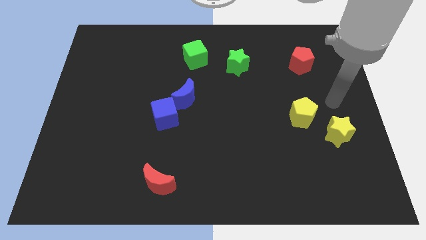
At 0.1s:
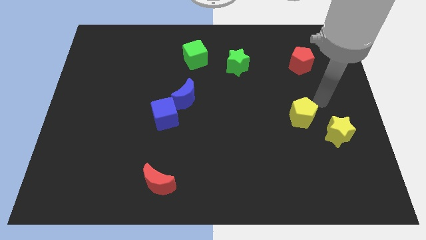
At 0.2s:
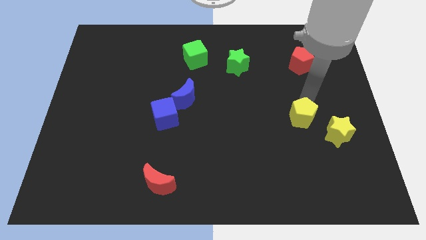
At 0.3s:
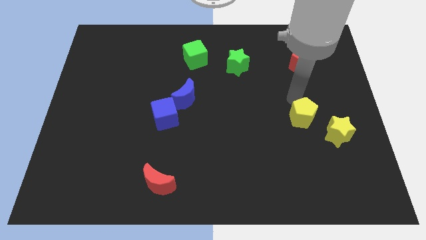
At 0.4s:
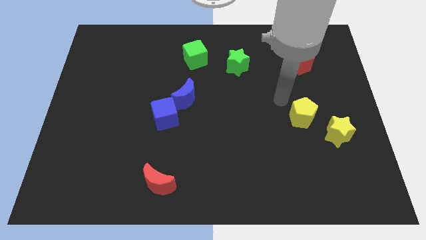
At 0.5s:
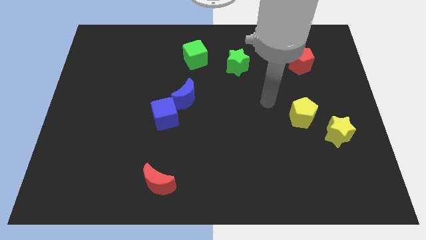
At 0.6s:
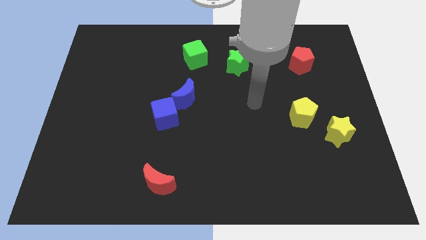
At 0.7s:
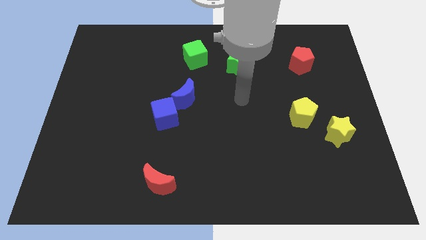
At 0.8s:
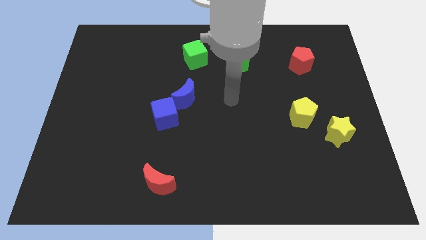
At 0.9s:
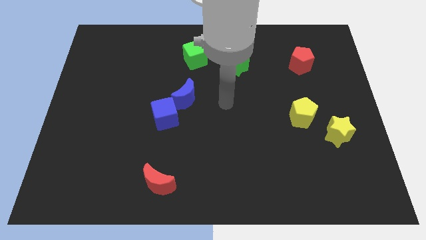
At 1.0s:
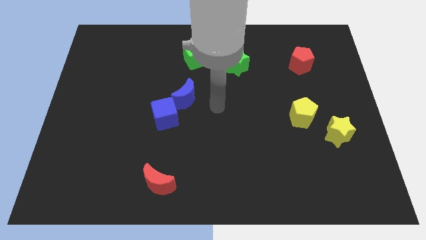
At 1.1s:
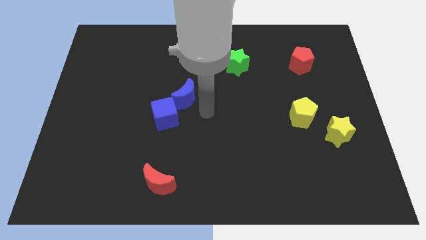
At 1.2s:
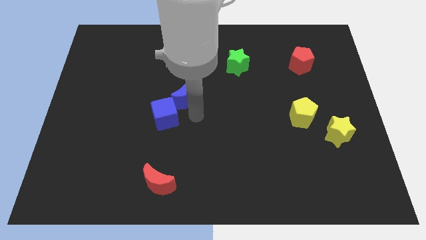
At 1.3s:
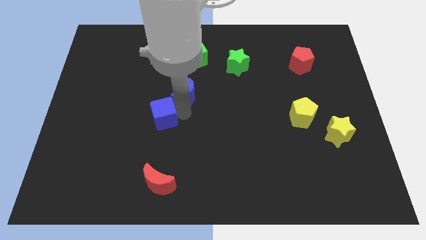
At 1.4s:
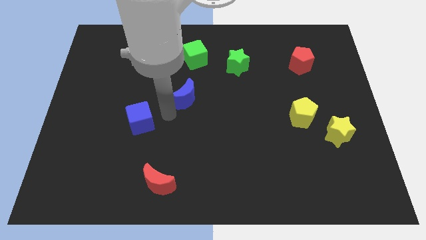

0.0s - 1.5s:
move the blue moon away from the blue cube

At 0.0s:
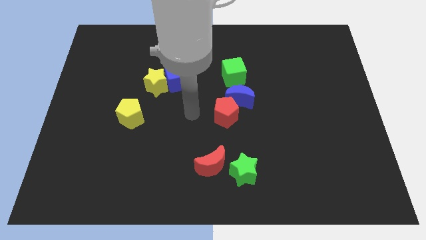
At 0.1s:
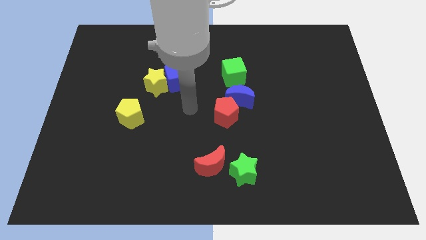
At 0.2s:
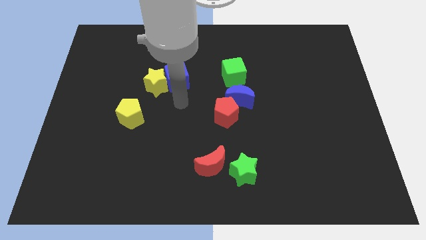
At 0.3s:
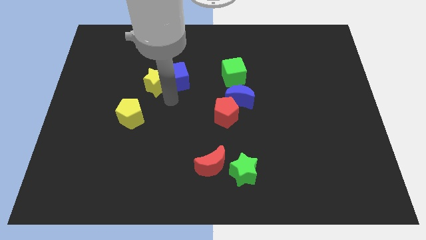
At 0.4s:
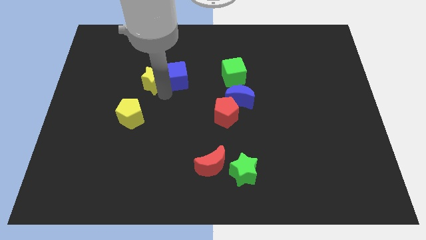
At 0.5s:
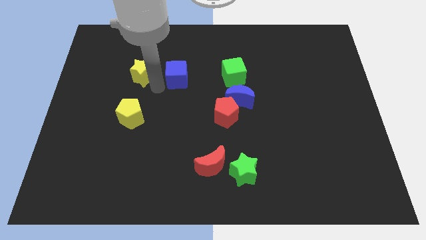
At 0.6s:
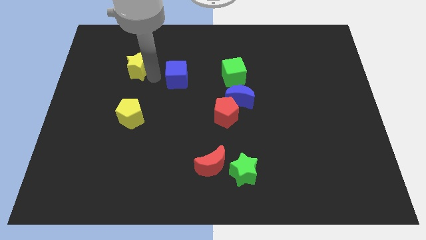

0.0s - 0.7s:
separate the blue cube from the yellow star

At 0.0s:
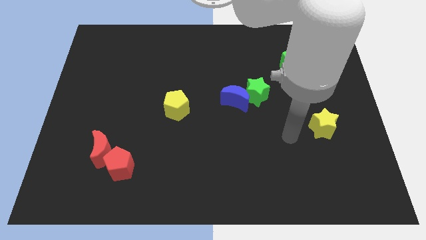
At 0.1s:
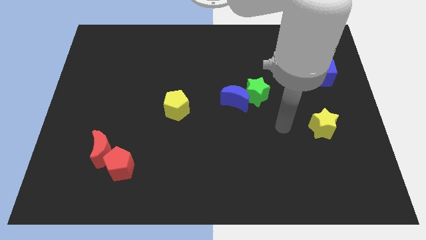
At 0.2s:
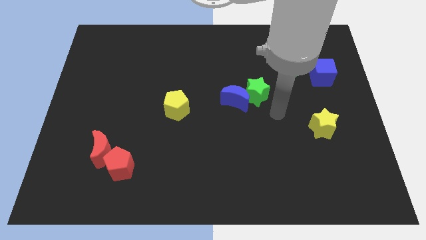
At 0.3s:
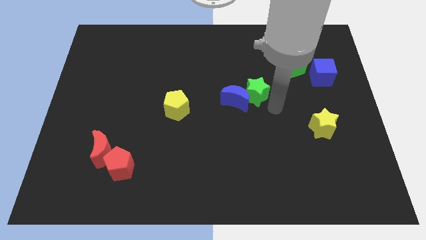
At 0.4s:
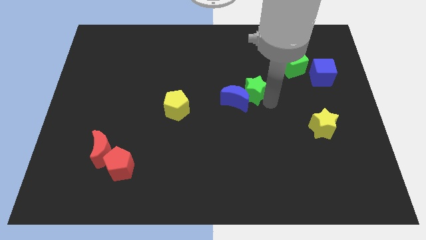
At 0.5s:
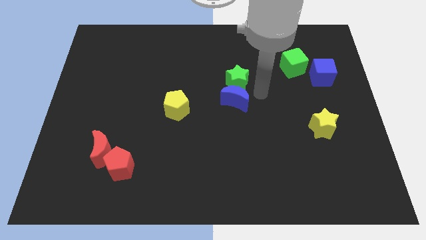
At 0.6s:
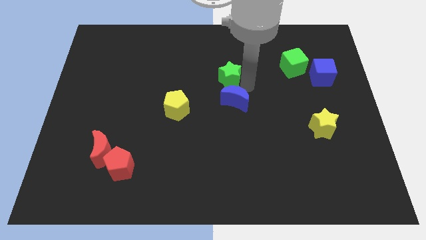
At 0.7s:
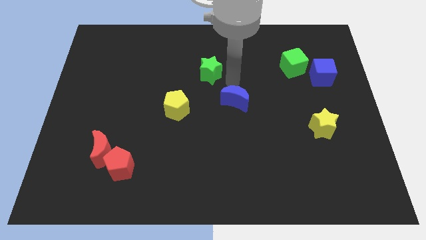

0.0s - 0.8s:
separate the blue moon from the green star

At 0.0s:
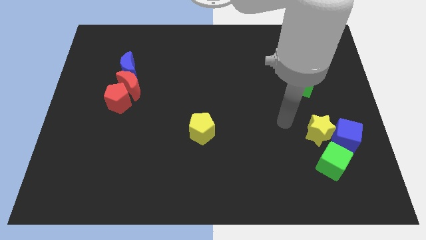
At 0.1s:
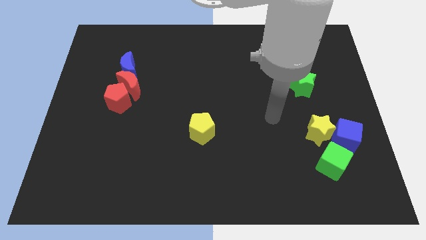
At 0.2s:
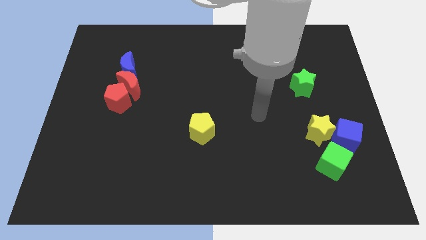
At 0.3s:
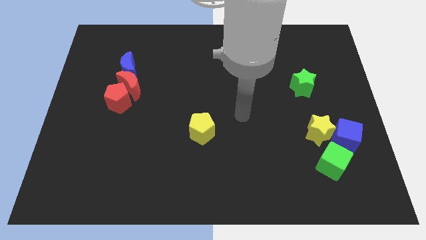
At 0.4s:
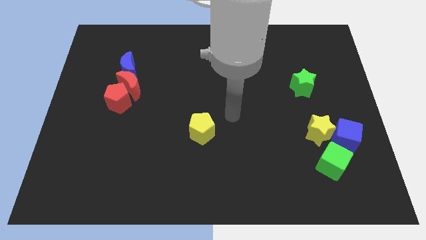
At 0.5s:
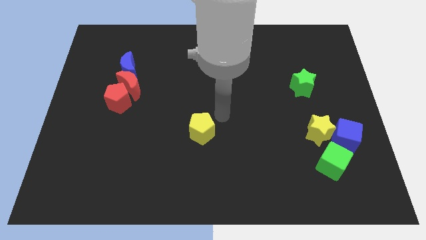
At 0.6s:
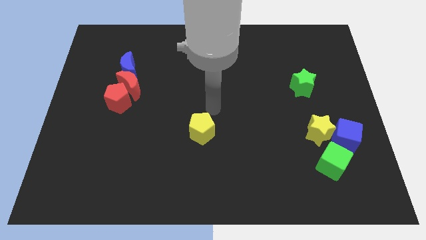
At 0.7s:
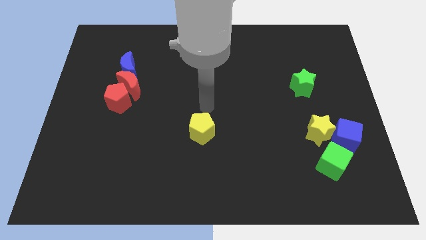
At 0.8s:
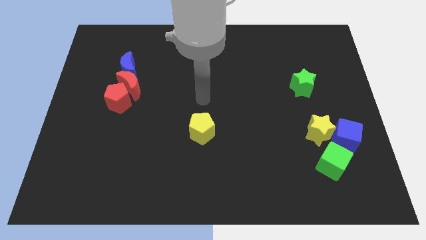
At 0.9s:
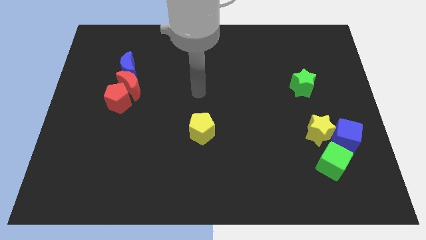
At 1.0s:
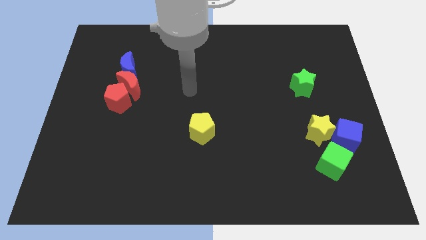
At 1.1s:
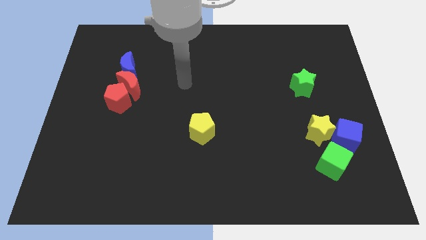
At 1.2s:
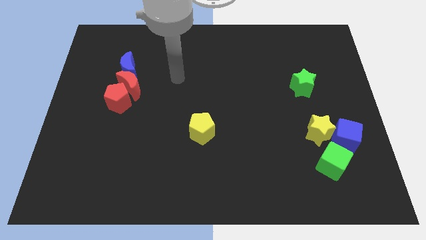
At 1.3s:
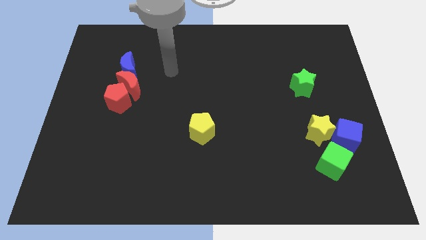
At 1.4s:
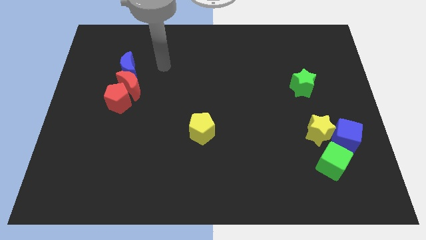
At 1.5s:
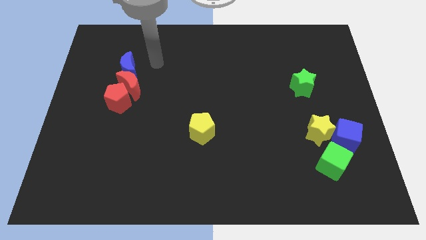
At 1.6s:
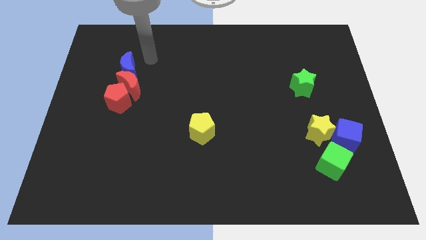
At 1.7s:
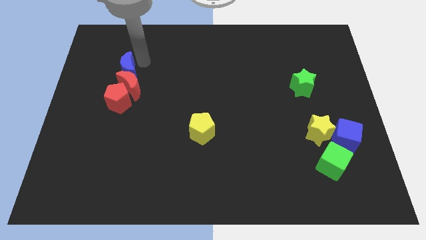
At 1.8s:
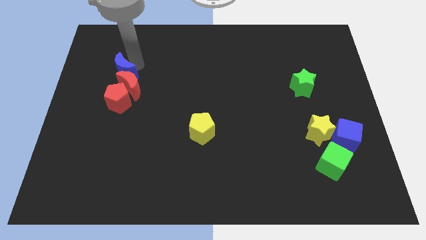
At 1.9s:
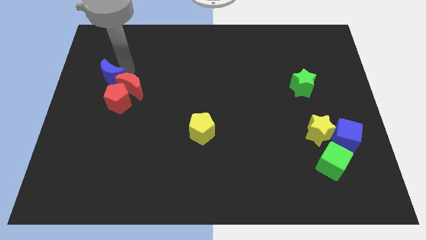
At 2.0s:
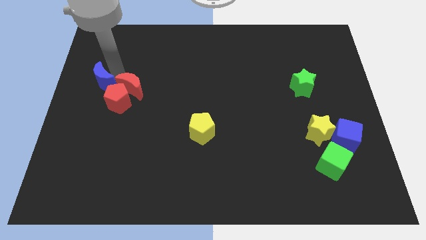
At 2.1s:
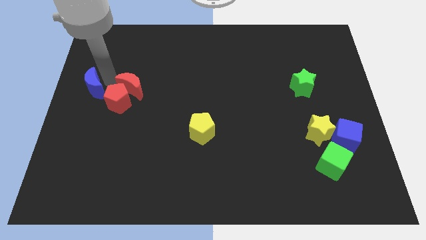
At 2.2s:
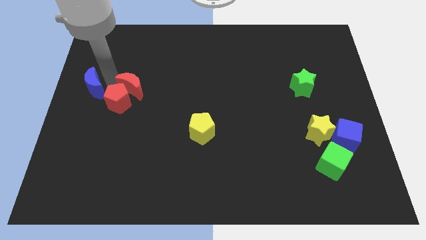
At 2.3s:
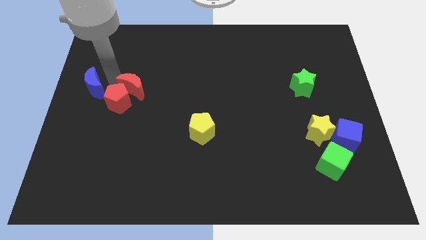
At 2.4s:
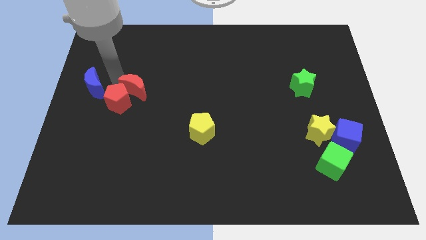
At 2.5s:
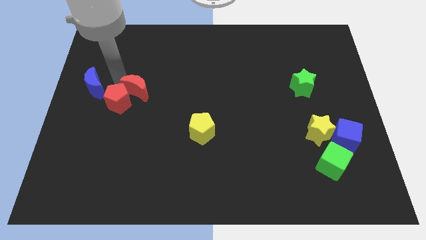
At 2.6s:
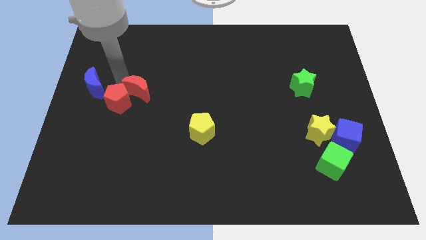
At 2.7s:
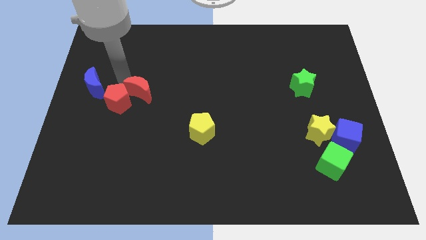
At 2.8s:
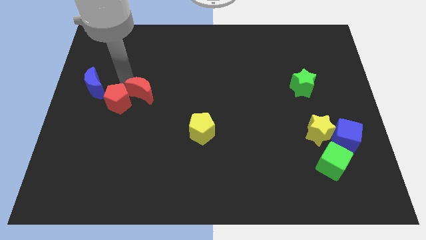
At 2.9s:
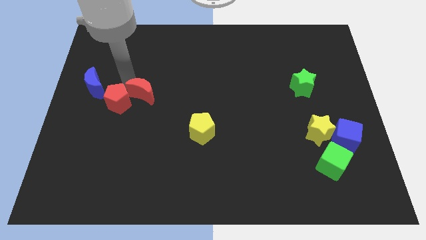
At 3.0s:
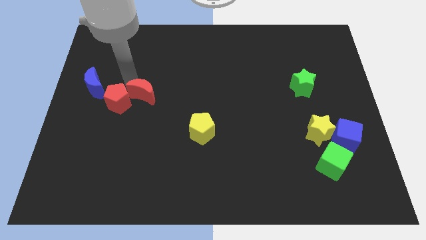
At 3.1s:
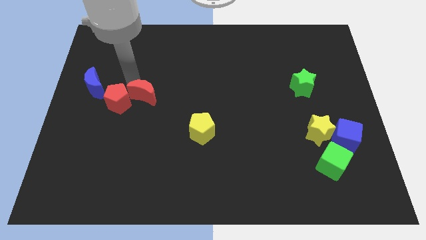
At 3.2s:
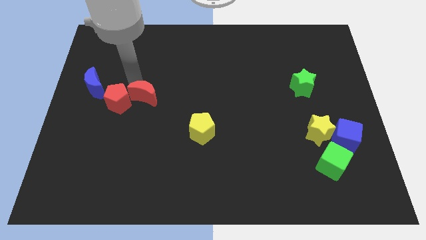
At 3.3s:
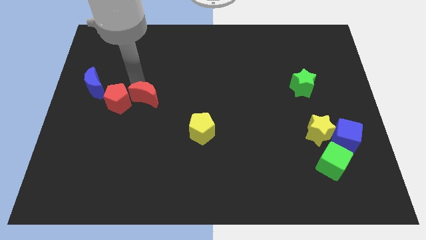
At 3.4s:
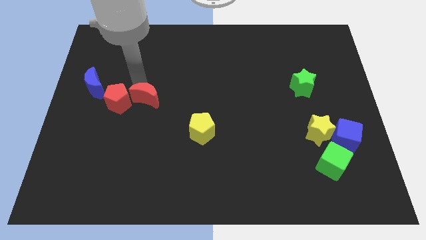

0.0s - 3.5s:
move the red moon away from the red pentagon and blue moon

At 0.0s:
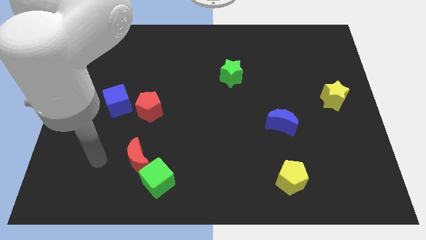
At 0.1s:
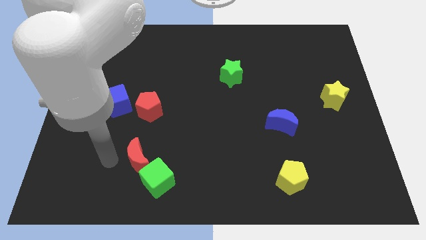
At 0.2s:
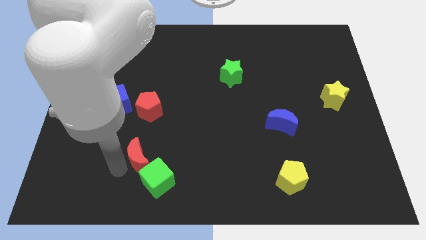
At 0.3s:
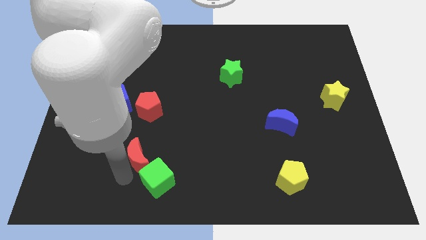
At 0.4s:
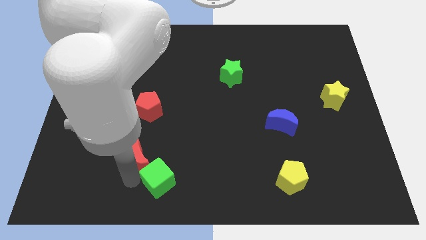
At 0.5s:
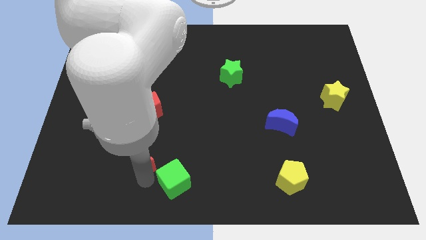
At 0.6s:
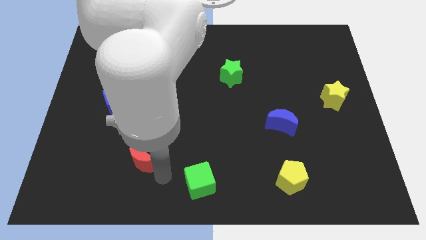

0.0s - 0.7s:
pull the red moon apart from the green cube

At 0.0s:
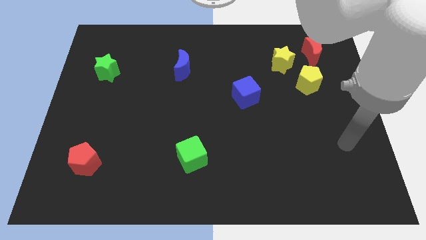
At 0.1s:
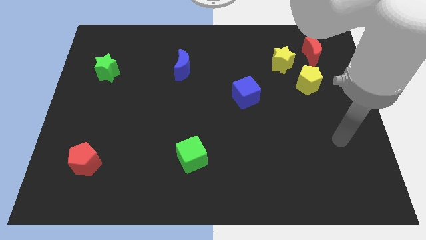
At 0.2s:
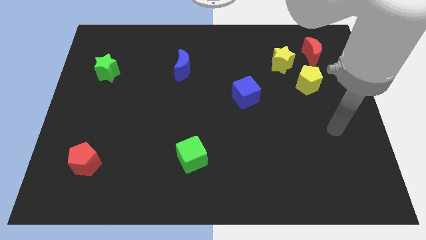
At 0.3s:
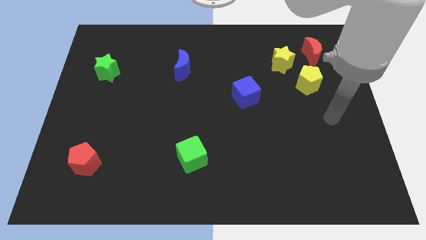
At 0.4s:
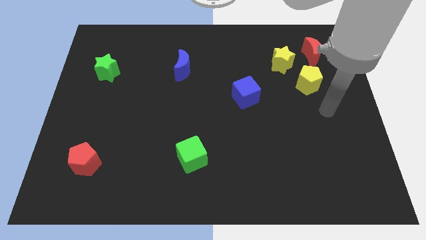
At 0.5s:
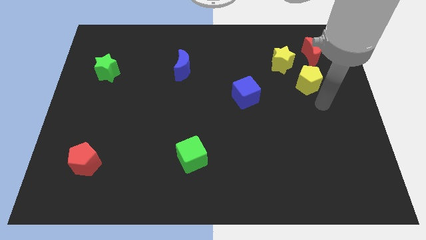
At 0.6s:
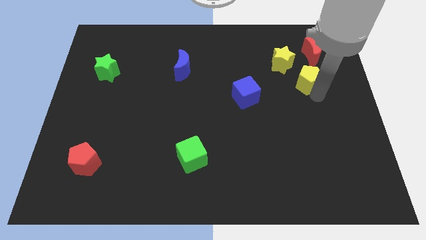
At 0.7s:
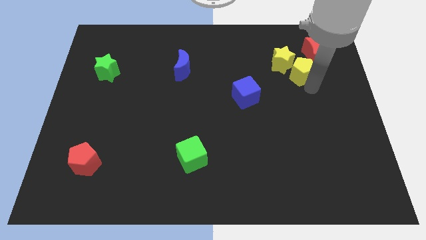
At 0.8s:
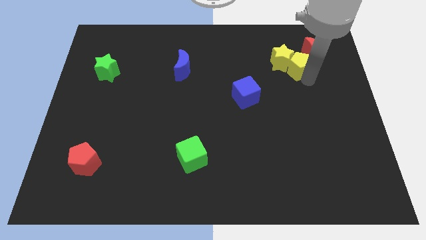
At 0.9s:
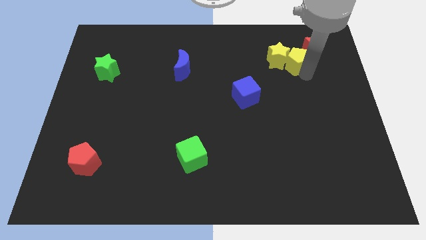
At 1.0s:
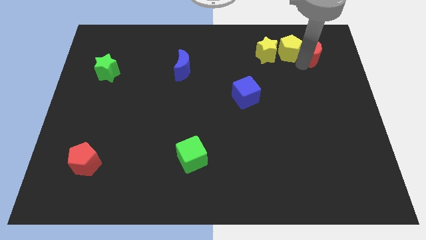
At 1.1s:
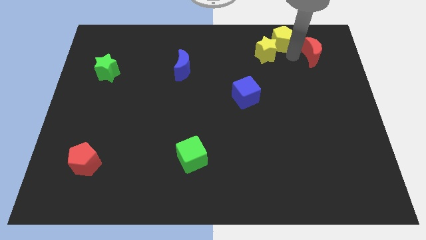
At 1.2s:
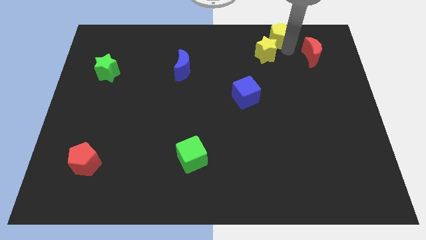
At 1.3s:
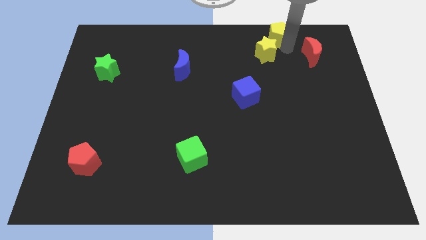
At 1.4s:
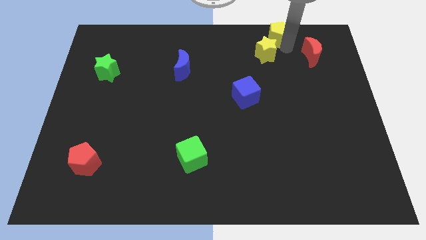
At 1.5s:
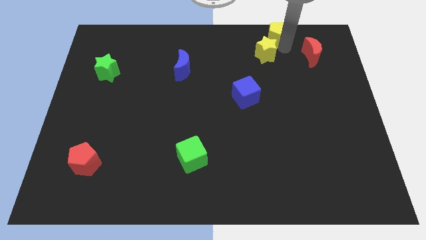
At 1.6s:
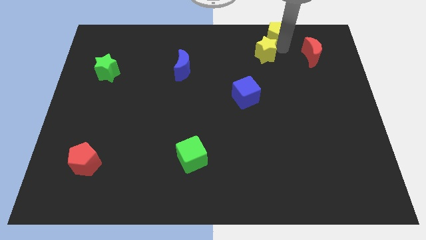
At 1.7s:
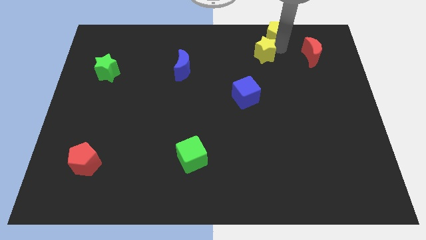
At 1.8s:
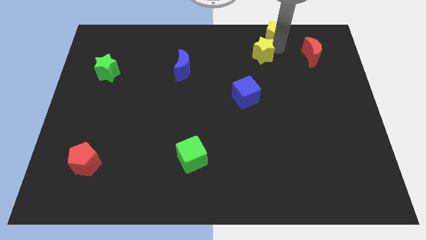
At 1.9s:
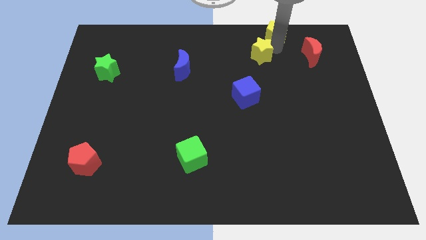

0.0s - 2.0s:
separate the yellow star from the red moon and yellow pentagon
